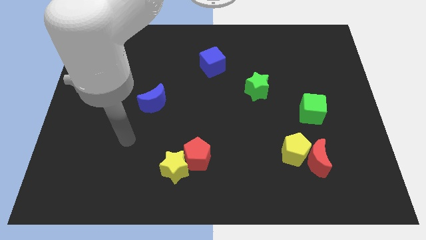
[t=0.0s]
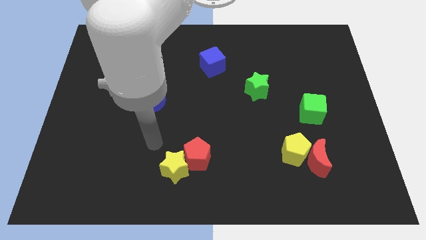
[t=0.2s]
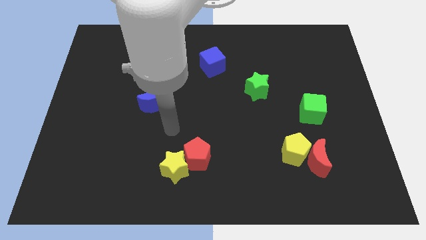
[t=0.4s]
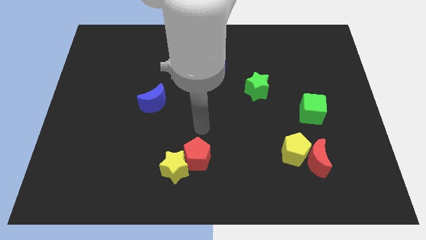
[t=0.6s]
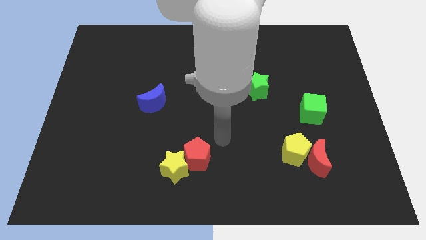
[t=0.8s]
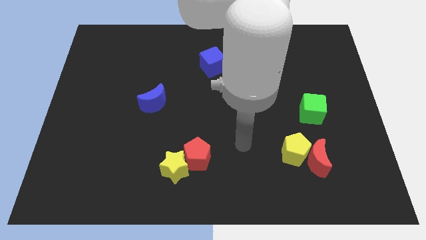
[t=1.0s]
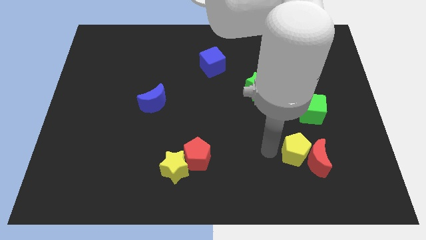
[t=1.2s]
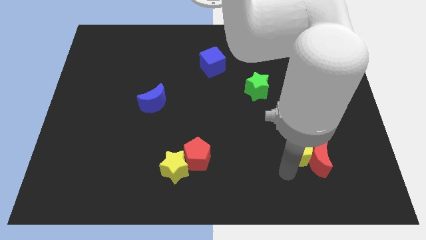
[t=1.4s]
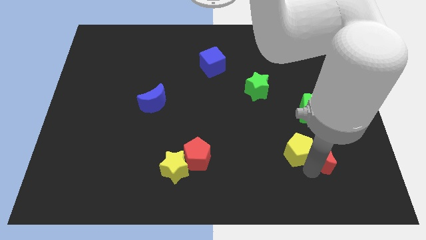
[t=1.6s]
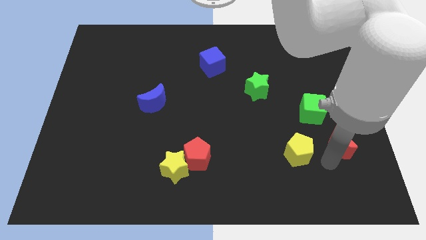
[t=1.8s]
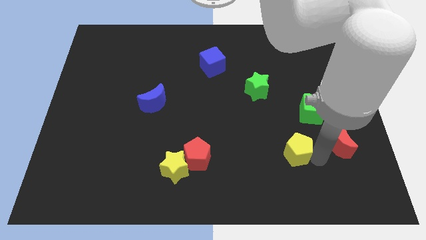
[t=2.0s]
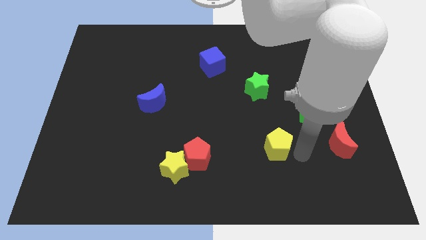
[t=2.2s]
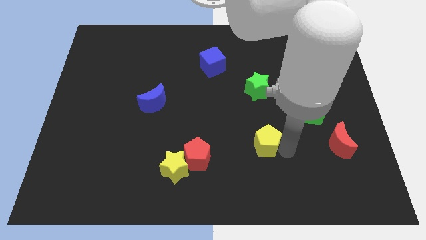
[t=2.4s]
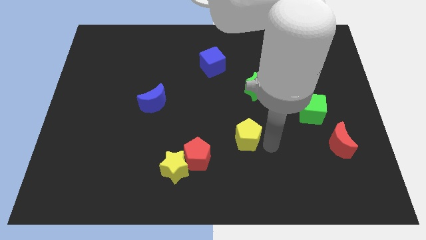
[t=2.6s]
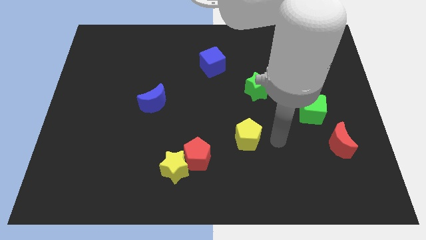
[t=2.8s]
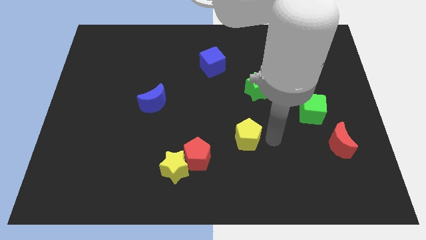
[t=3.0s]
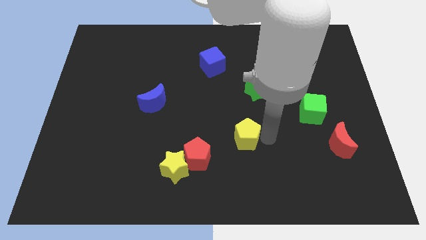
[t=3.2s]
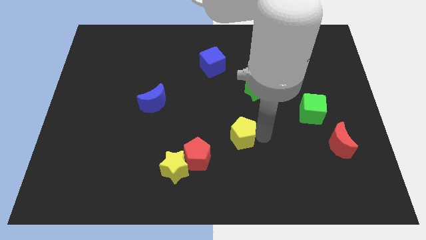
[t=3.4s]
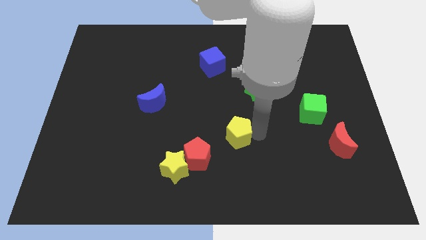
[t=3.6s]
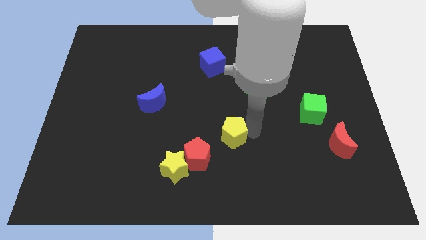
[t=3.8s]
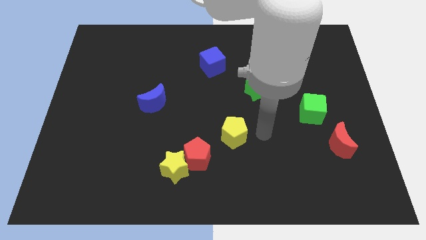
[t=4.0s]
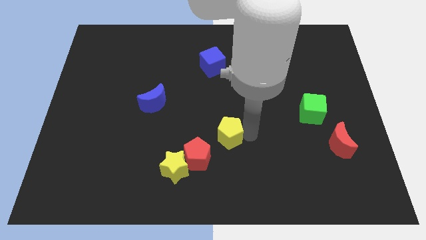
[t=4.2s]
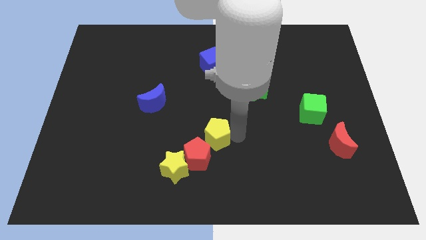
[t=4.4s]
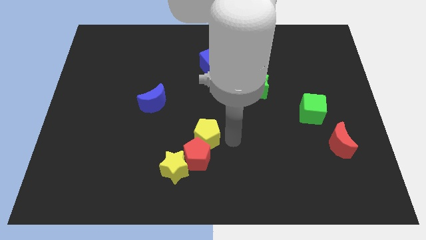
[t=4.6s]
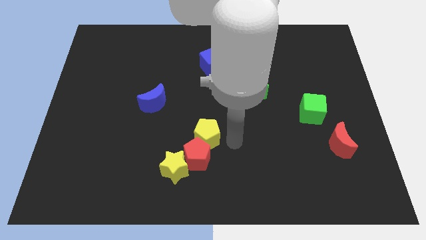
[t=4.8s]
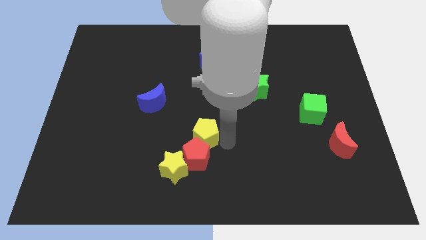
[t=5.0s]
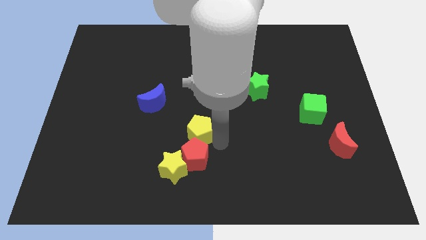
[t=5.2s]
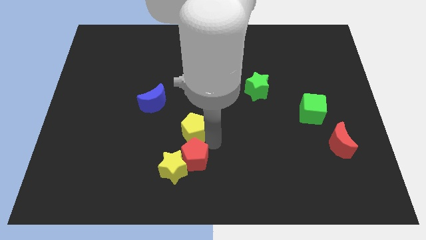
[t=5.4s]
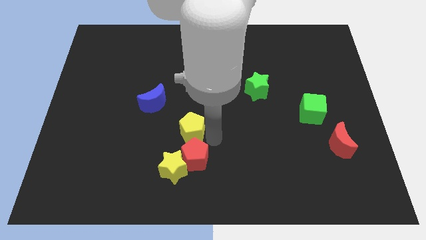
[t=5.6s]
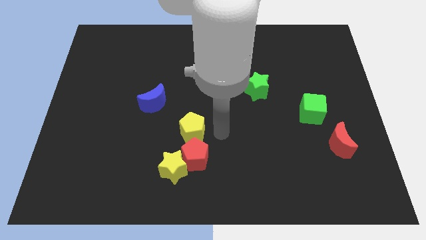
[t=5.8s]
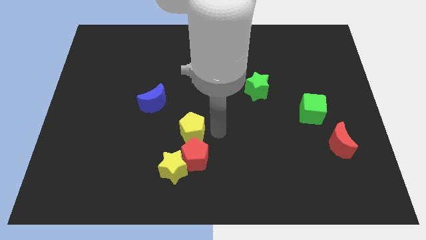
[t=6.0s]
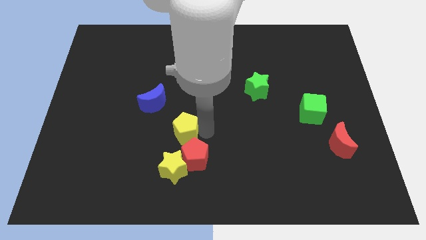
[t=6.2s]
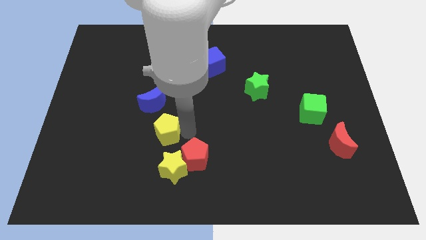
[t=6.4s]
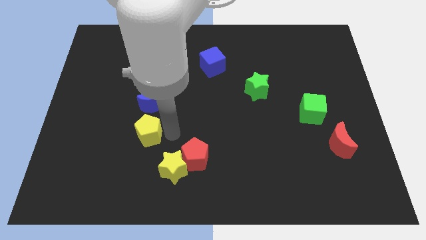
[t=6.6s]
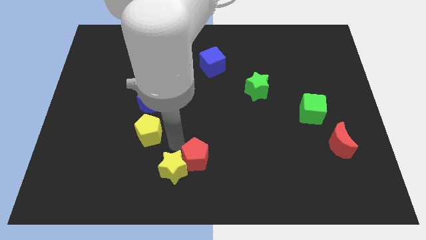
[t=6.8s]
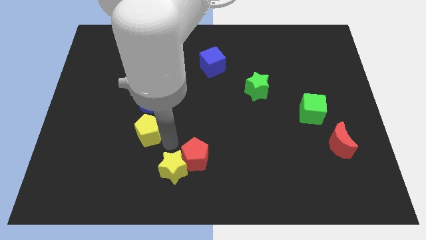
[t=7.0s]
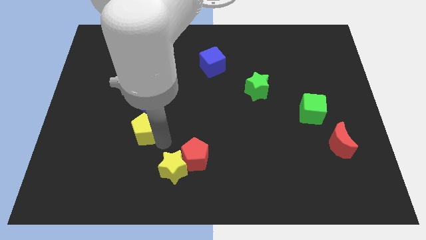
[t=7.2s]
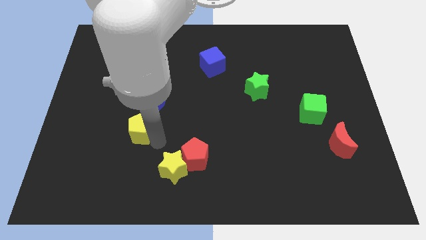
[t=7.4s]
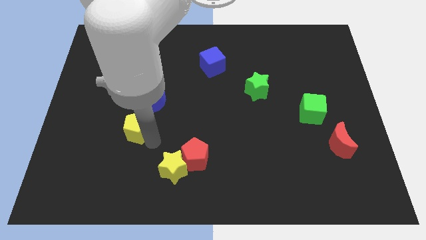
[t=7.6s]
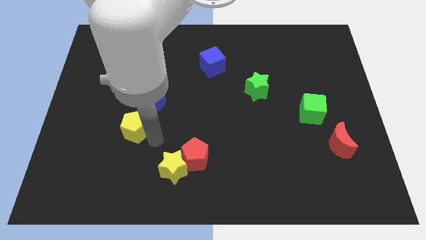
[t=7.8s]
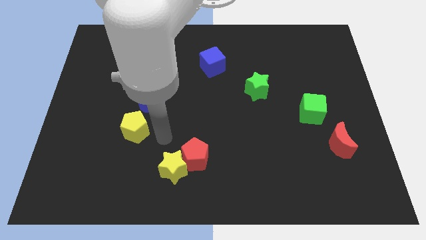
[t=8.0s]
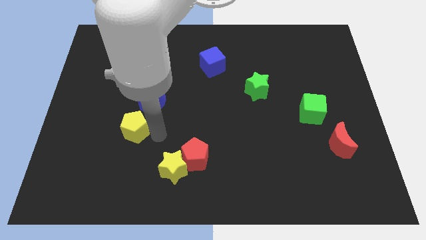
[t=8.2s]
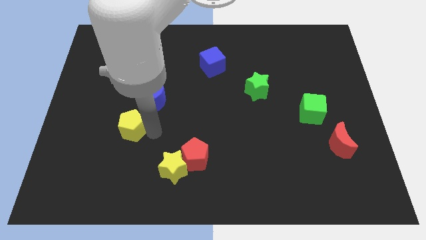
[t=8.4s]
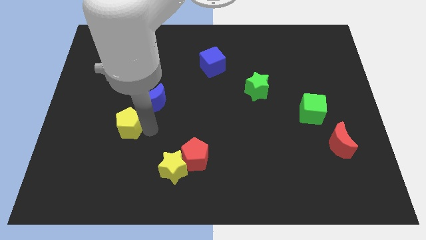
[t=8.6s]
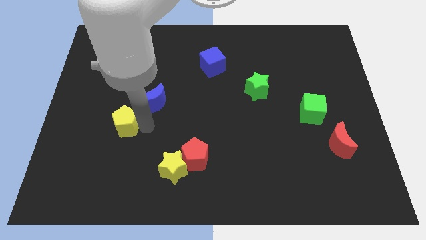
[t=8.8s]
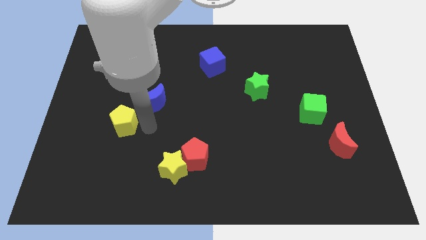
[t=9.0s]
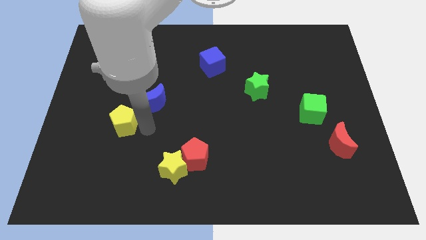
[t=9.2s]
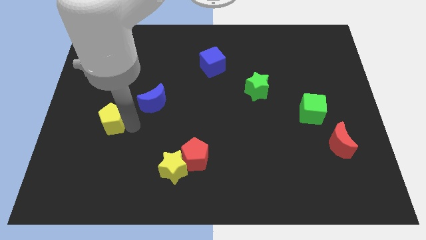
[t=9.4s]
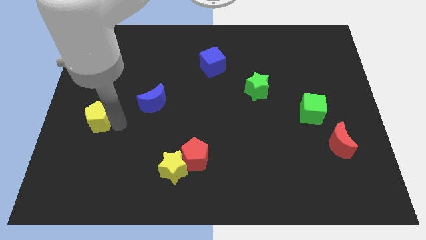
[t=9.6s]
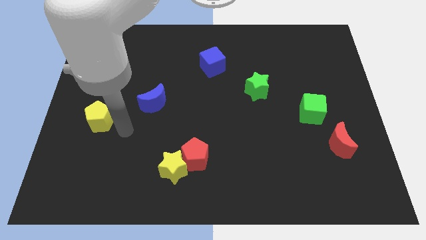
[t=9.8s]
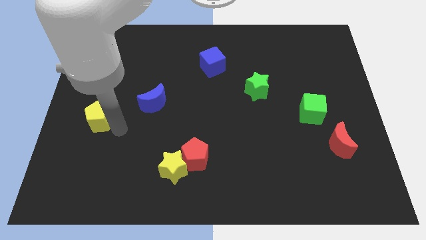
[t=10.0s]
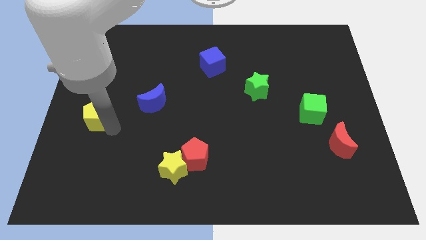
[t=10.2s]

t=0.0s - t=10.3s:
slide the yellow pentagon to the left side of the board

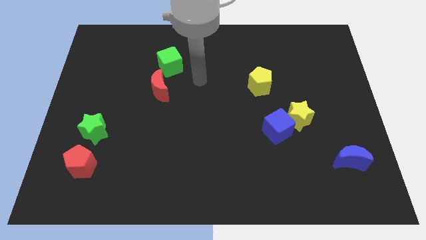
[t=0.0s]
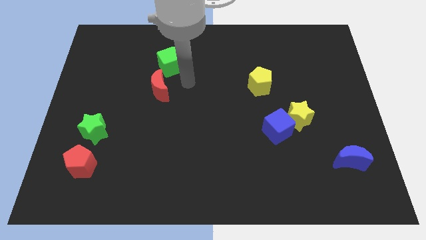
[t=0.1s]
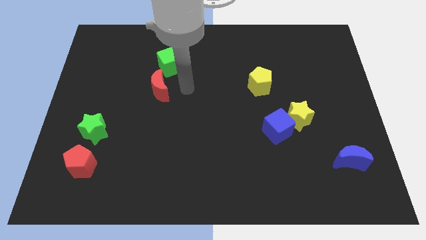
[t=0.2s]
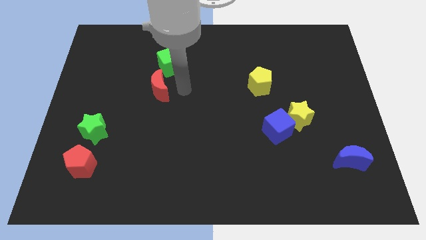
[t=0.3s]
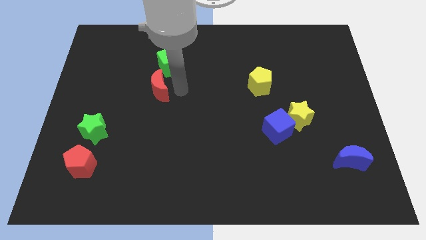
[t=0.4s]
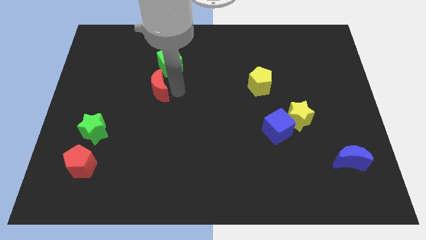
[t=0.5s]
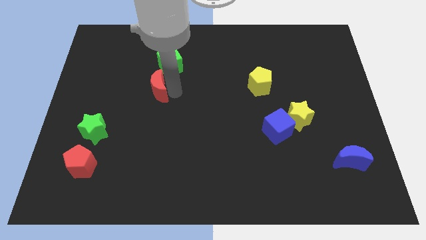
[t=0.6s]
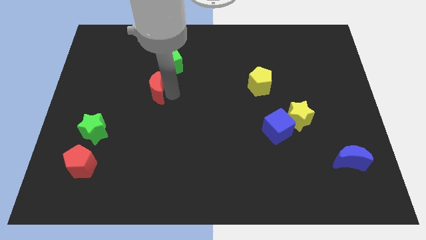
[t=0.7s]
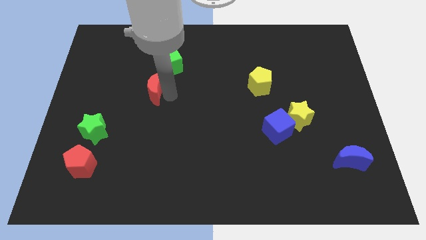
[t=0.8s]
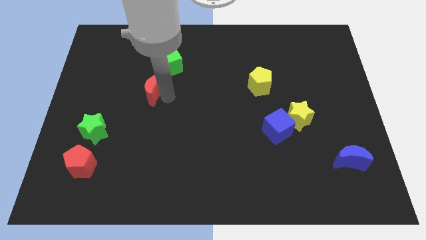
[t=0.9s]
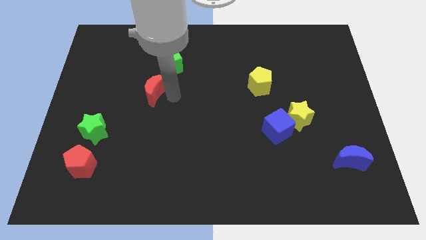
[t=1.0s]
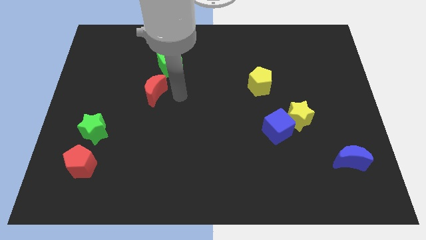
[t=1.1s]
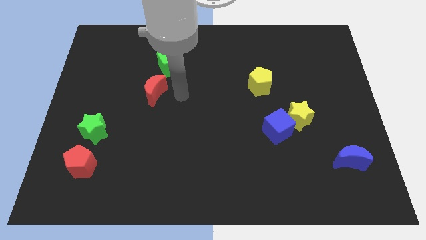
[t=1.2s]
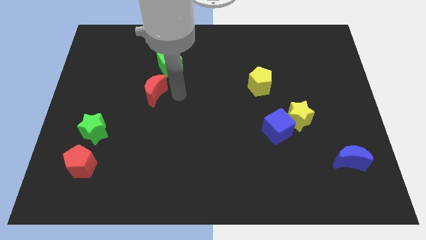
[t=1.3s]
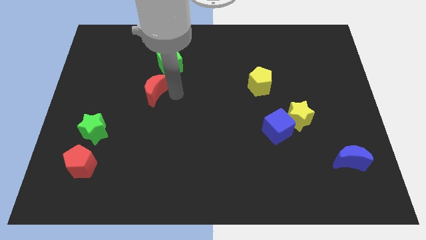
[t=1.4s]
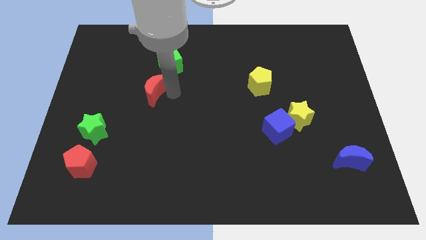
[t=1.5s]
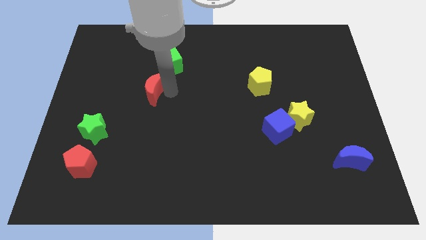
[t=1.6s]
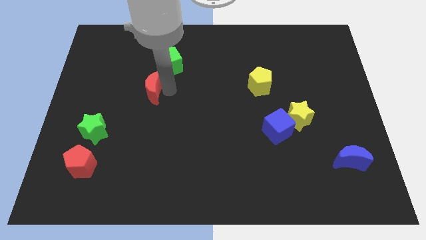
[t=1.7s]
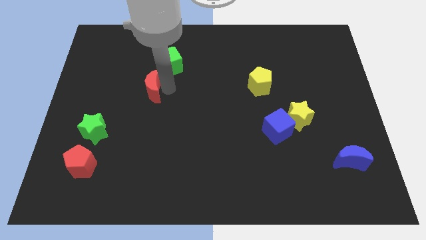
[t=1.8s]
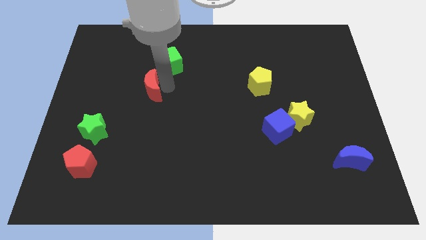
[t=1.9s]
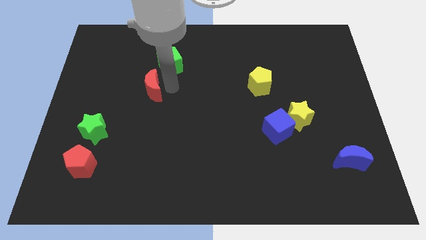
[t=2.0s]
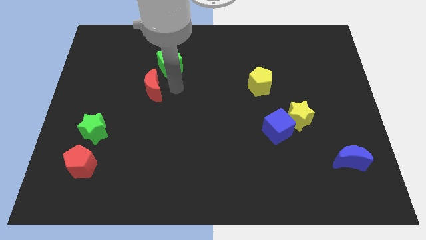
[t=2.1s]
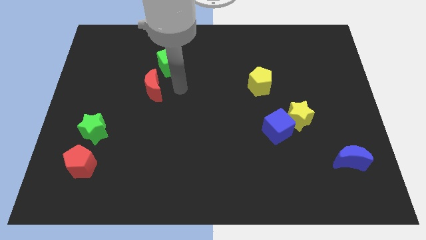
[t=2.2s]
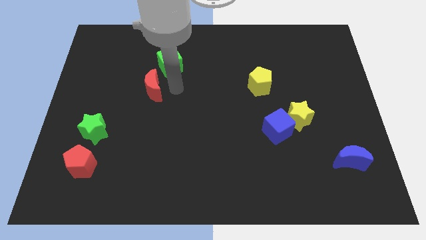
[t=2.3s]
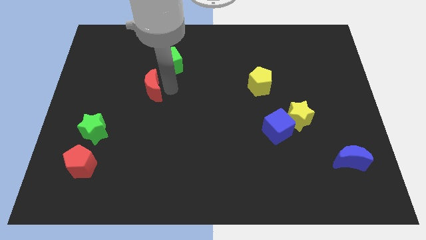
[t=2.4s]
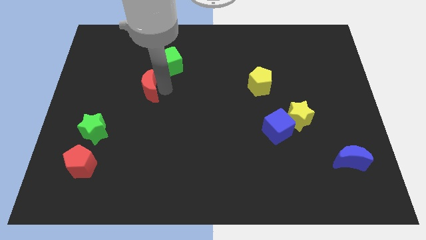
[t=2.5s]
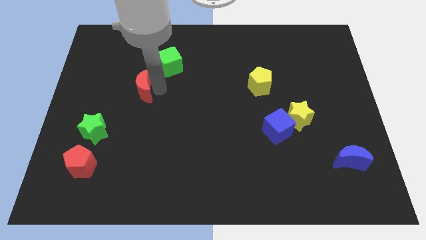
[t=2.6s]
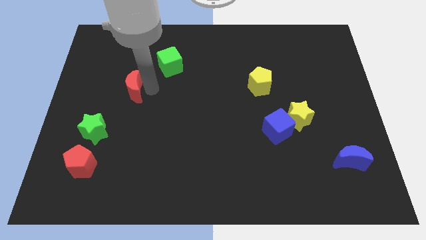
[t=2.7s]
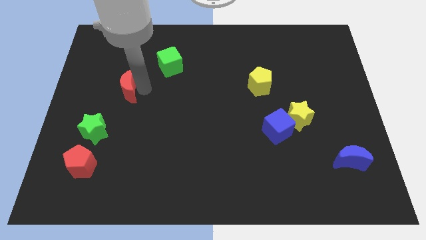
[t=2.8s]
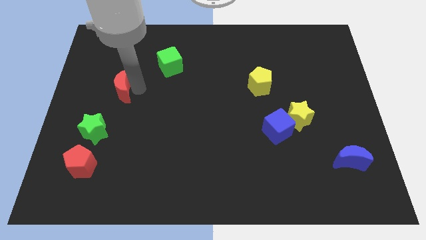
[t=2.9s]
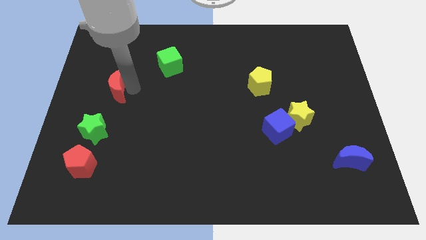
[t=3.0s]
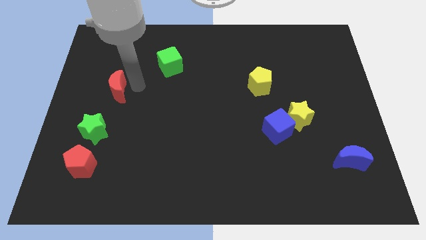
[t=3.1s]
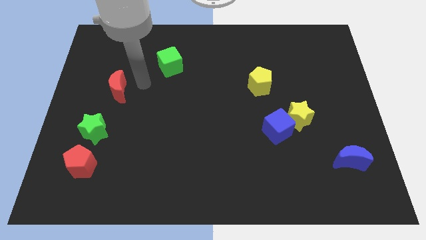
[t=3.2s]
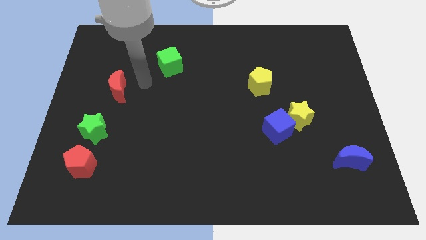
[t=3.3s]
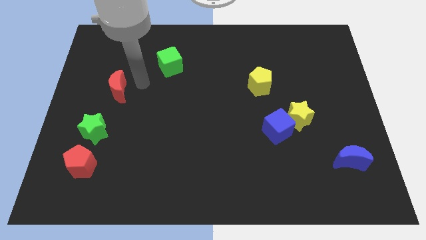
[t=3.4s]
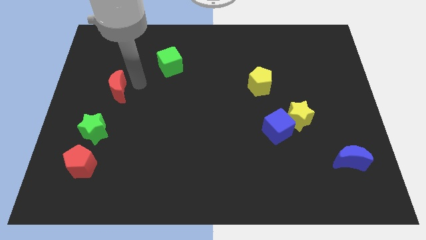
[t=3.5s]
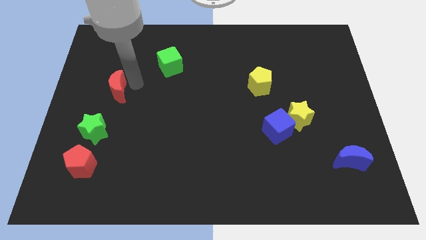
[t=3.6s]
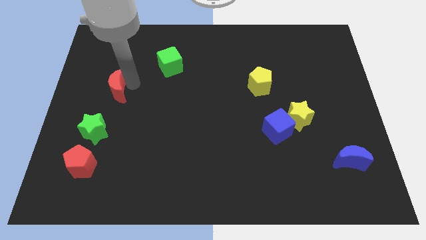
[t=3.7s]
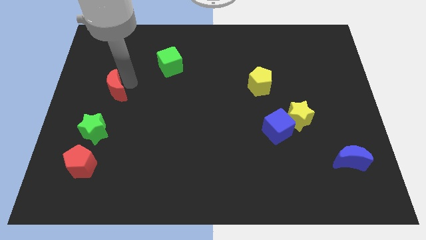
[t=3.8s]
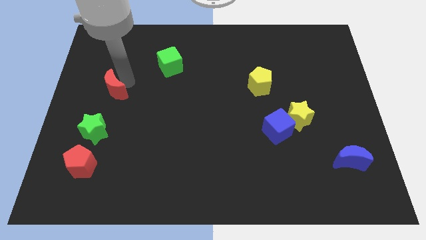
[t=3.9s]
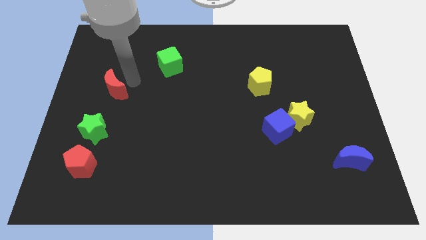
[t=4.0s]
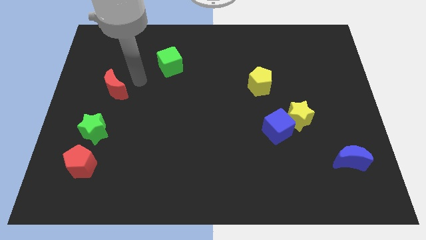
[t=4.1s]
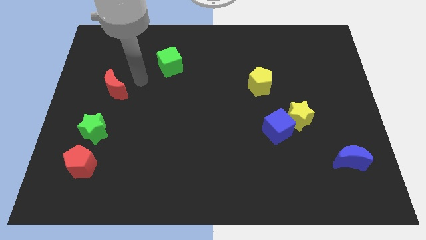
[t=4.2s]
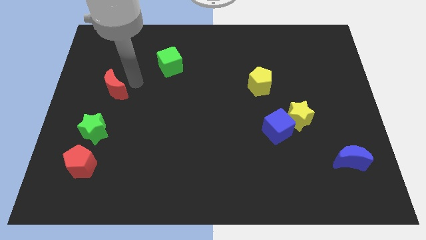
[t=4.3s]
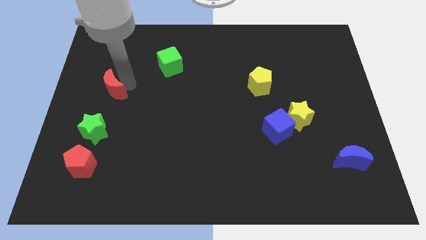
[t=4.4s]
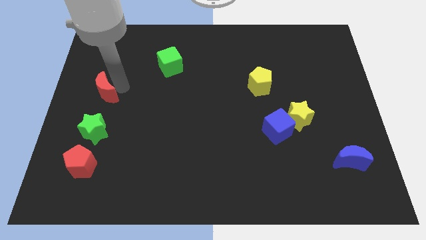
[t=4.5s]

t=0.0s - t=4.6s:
move the red moon to the center left
